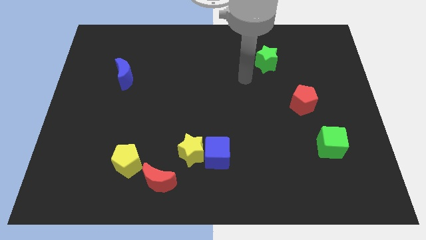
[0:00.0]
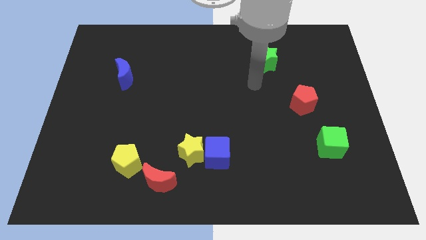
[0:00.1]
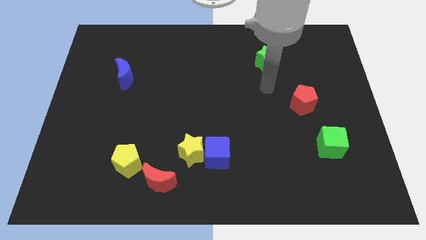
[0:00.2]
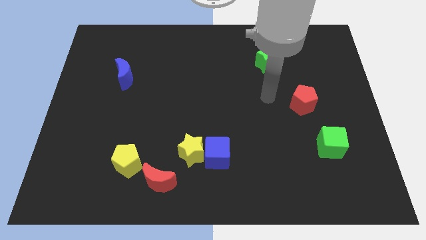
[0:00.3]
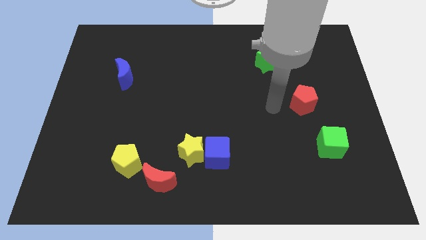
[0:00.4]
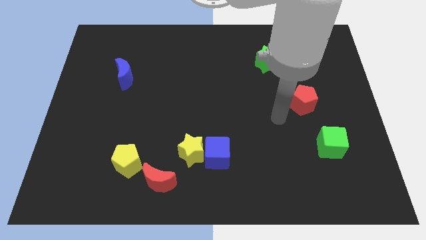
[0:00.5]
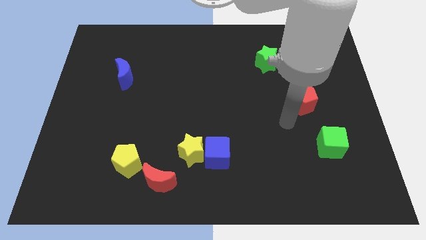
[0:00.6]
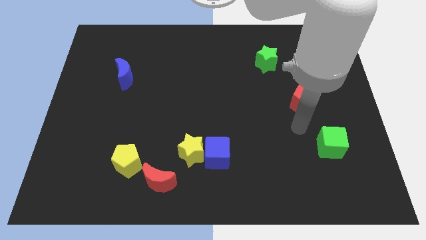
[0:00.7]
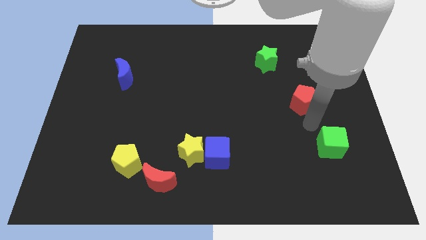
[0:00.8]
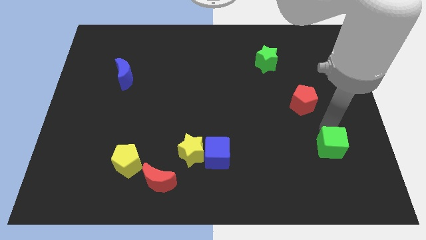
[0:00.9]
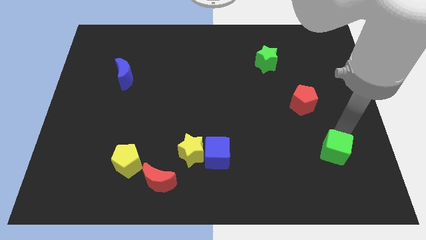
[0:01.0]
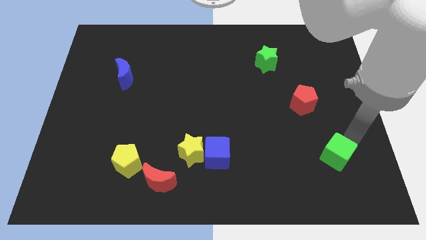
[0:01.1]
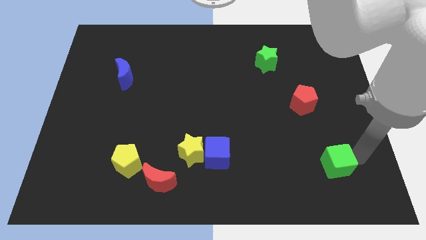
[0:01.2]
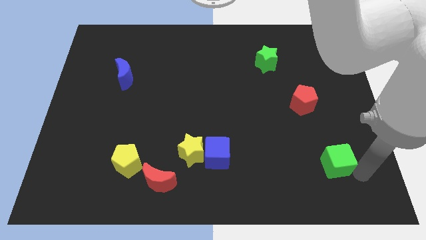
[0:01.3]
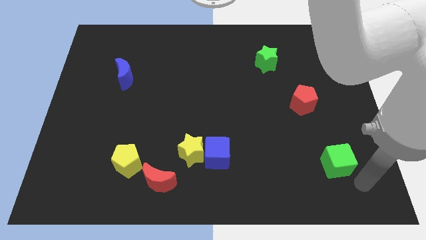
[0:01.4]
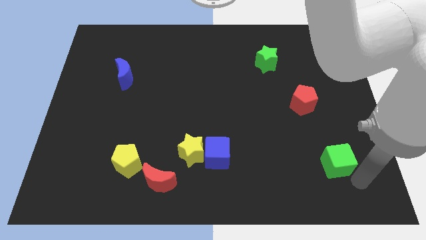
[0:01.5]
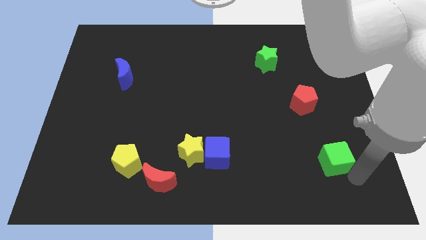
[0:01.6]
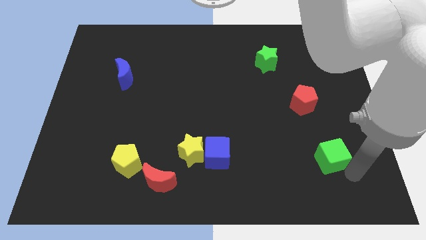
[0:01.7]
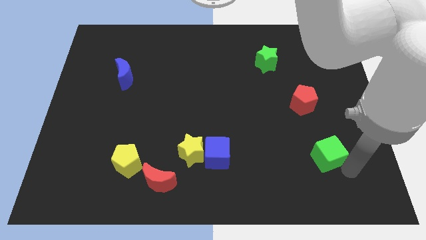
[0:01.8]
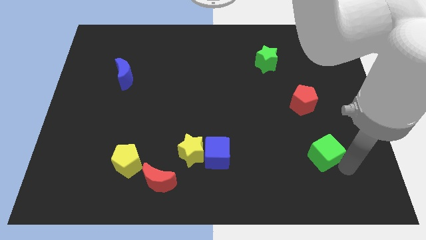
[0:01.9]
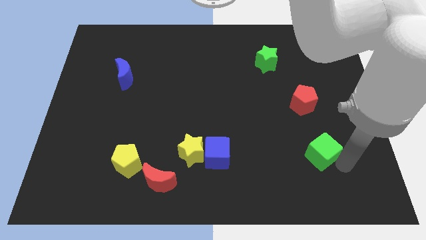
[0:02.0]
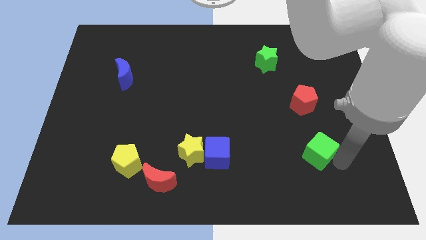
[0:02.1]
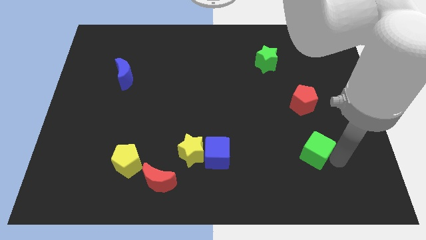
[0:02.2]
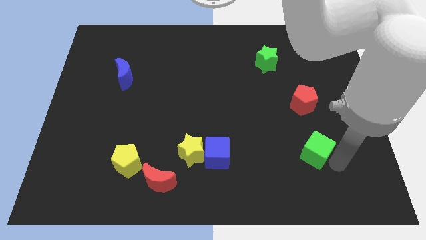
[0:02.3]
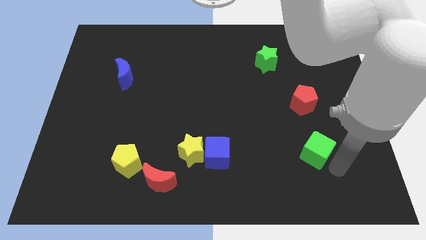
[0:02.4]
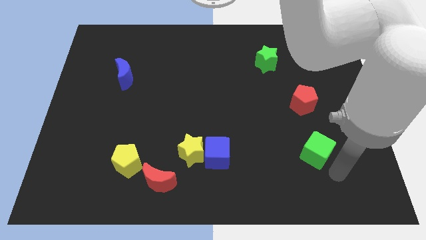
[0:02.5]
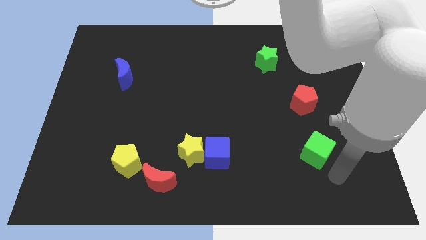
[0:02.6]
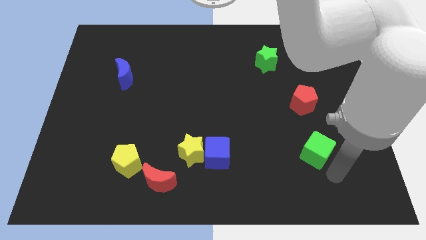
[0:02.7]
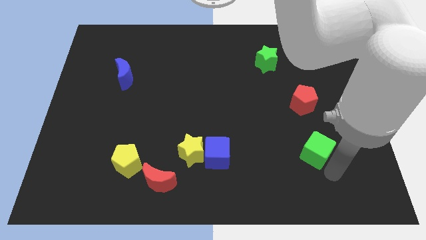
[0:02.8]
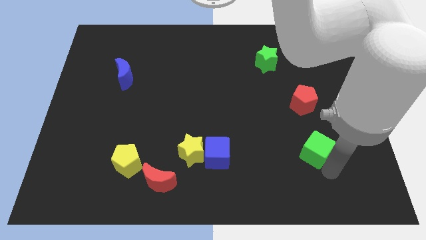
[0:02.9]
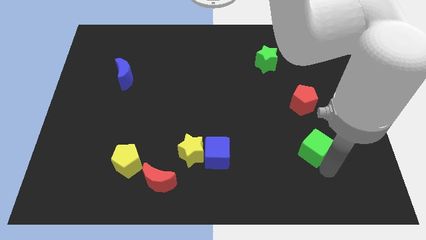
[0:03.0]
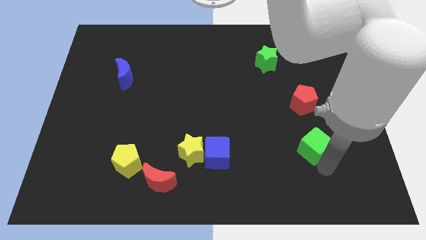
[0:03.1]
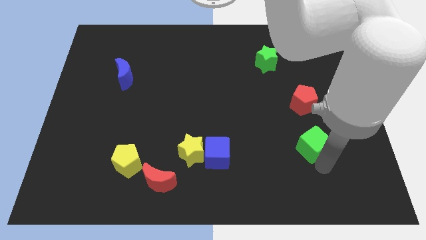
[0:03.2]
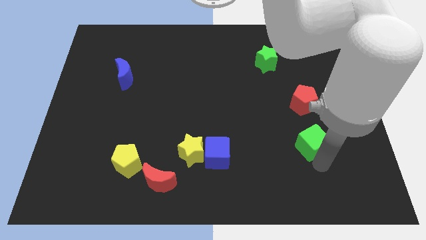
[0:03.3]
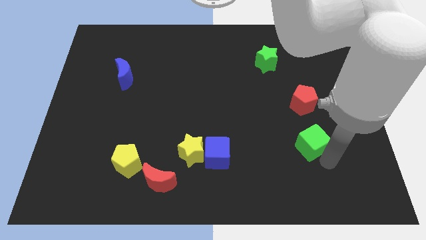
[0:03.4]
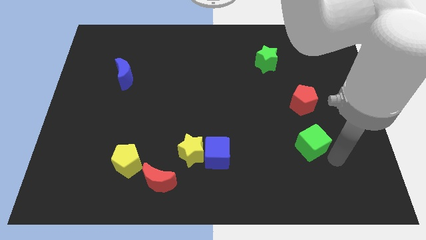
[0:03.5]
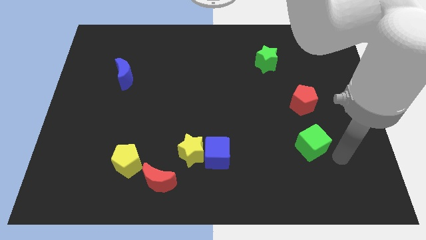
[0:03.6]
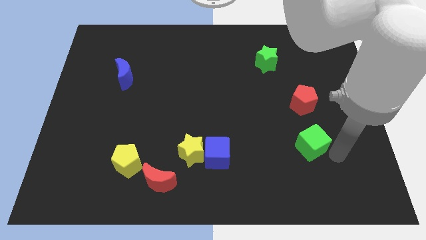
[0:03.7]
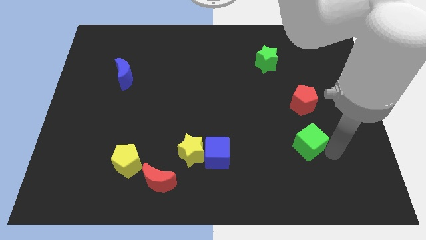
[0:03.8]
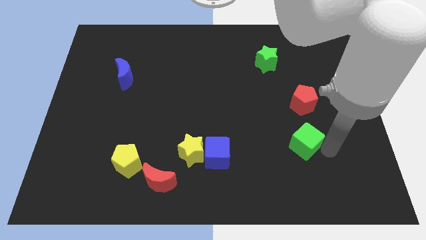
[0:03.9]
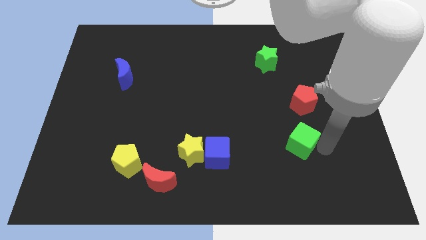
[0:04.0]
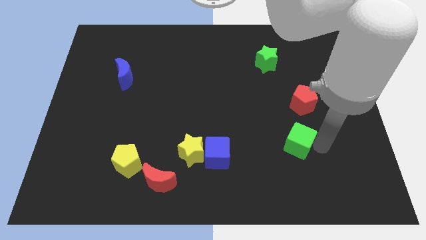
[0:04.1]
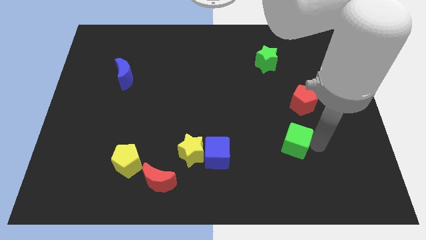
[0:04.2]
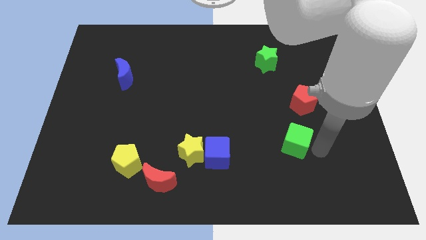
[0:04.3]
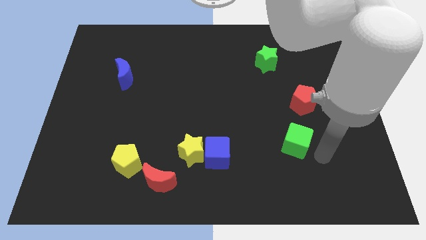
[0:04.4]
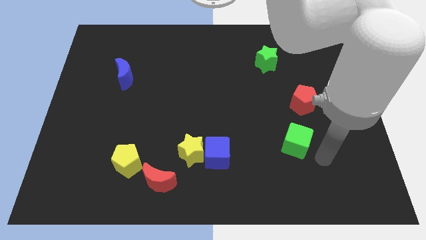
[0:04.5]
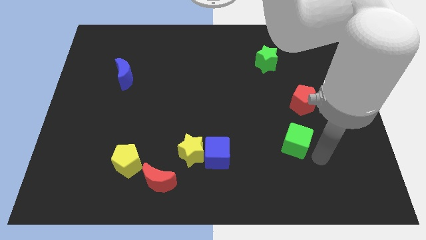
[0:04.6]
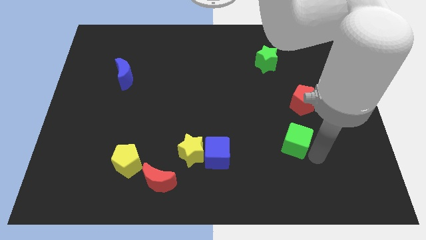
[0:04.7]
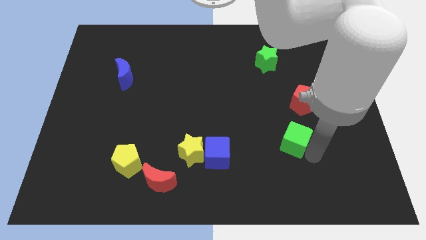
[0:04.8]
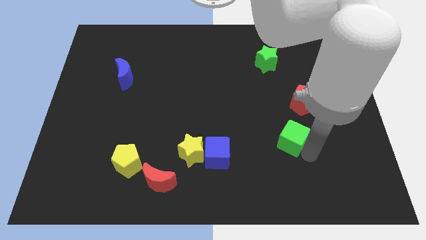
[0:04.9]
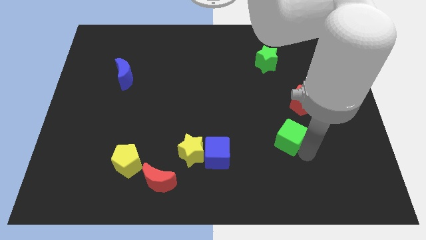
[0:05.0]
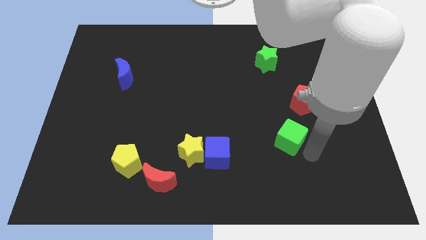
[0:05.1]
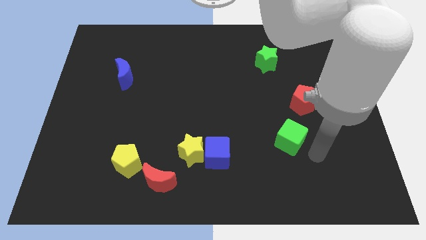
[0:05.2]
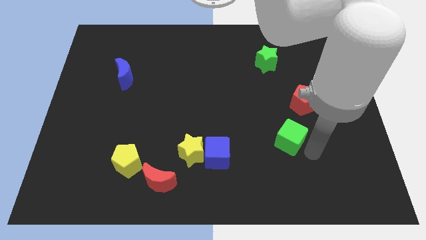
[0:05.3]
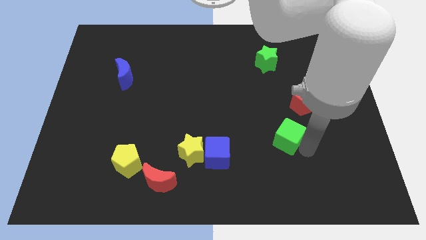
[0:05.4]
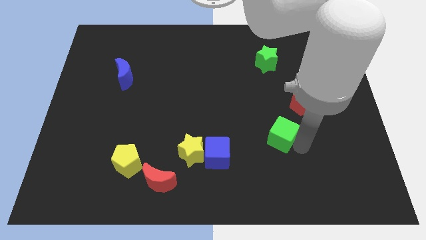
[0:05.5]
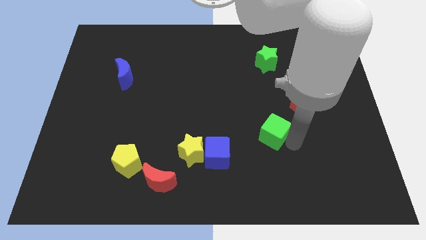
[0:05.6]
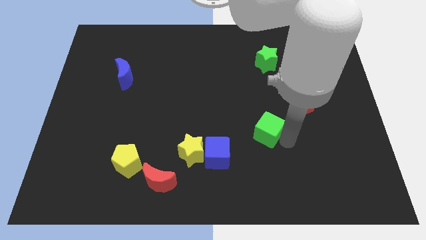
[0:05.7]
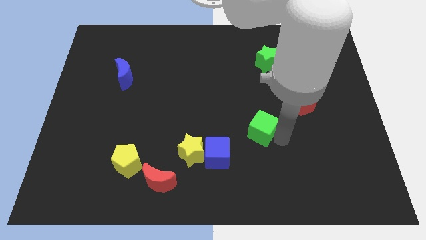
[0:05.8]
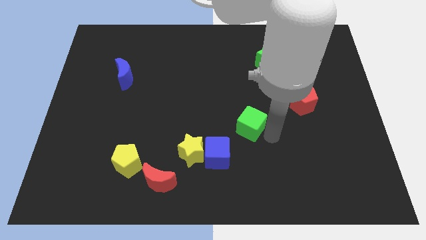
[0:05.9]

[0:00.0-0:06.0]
slide the green cube to the middle
